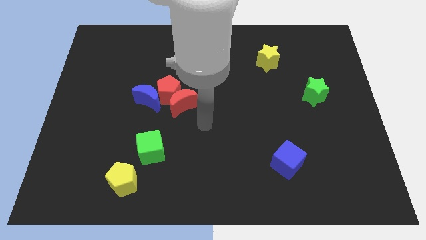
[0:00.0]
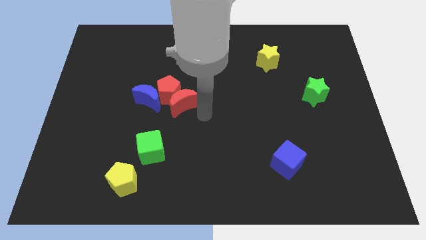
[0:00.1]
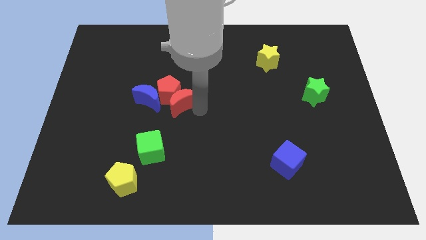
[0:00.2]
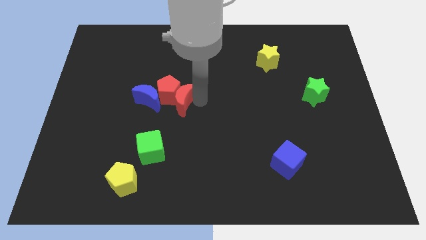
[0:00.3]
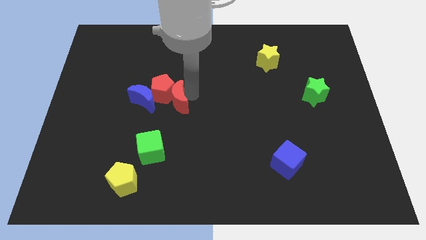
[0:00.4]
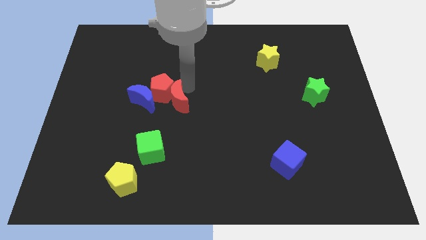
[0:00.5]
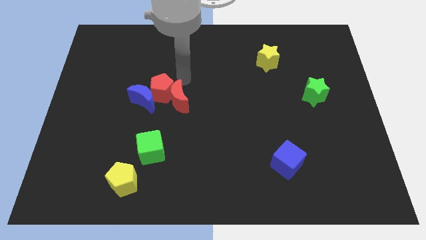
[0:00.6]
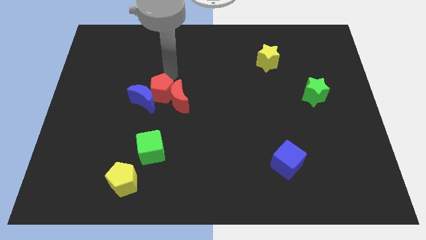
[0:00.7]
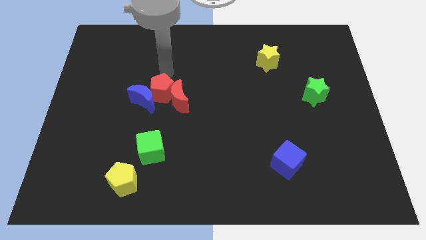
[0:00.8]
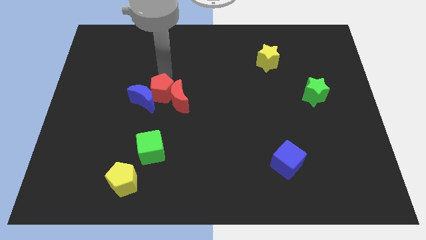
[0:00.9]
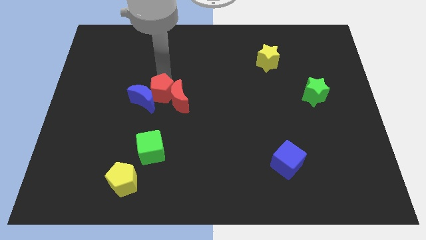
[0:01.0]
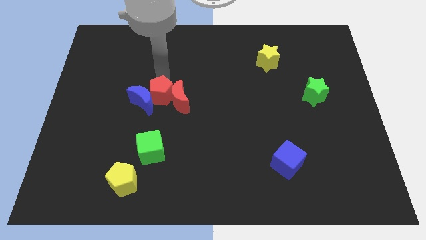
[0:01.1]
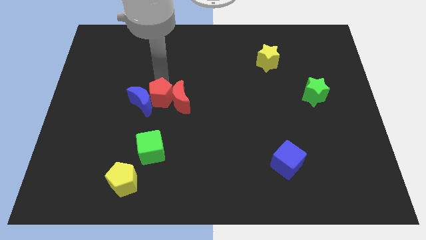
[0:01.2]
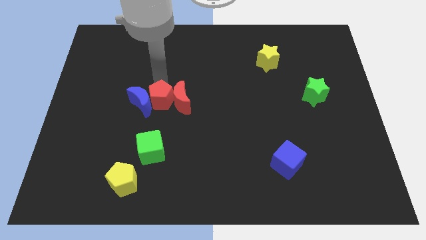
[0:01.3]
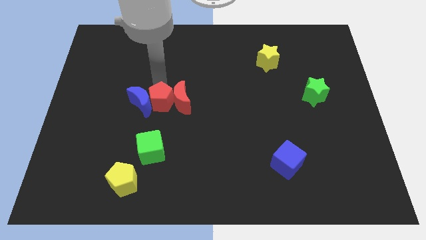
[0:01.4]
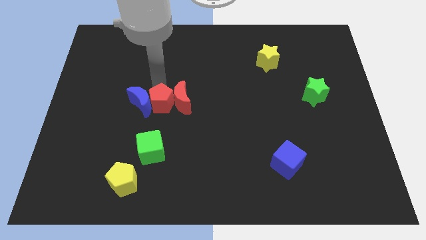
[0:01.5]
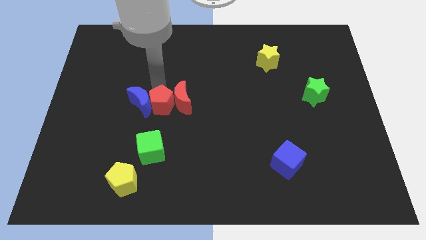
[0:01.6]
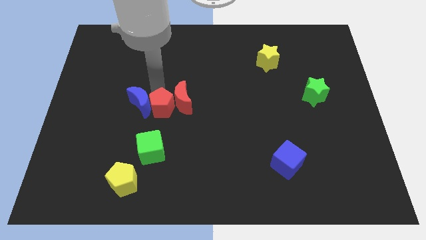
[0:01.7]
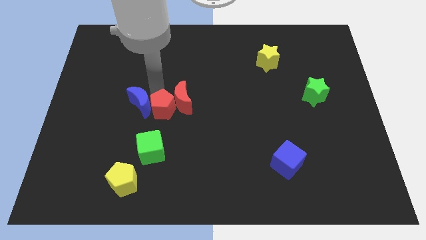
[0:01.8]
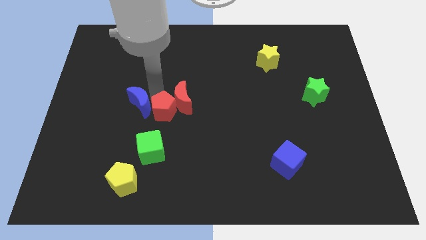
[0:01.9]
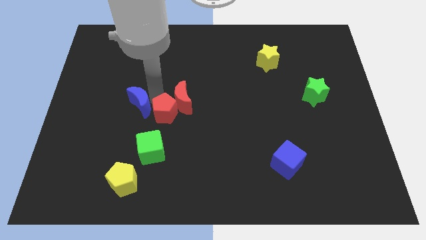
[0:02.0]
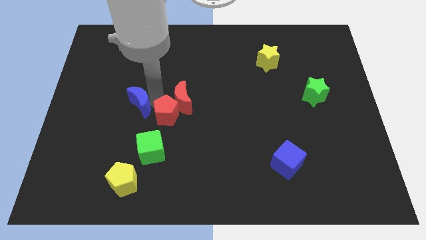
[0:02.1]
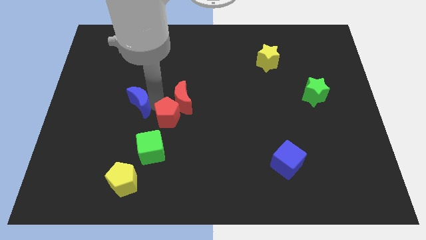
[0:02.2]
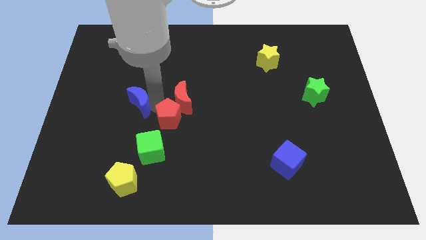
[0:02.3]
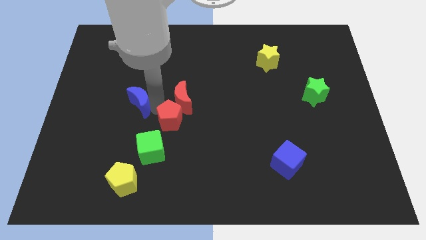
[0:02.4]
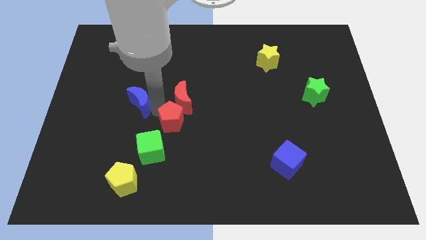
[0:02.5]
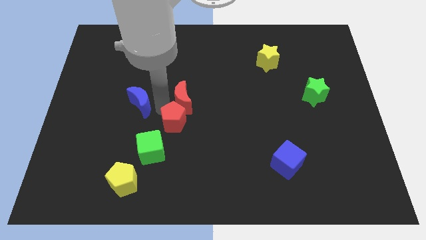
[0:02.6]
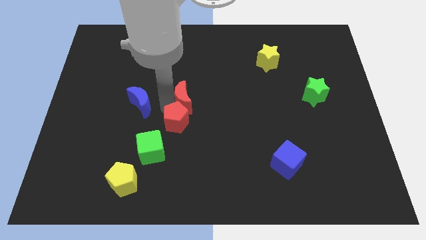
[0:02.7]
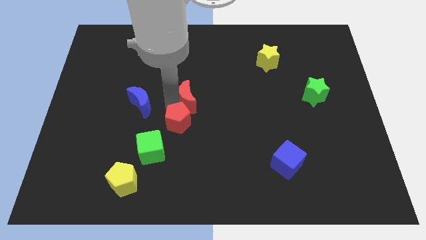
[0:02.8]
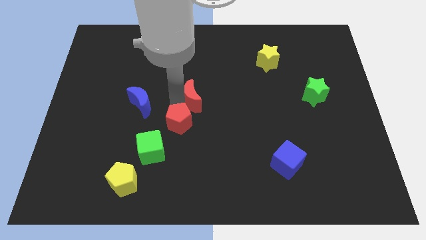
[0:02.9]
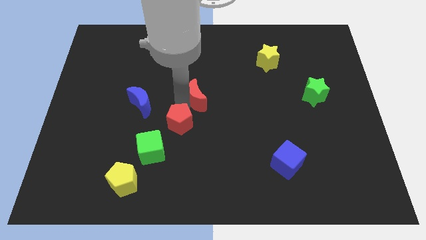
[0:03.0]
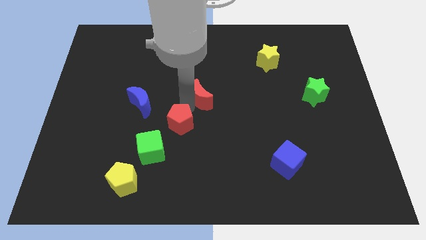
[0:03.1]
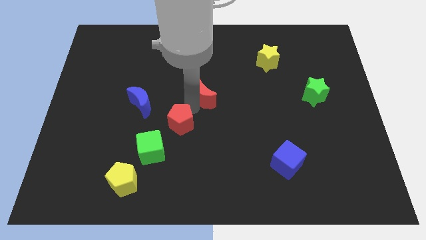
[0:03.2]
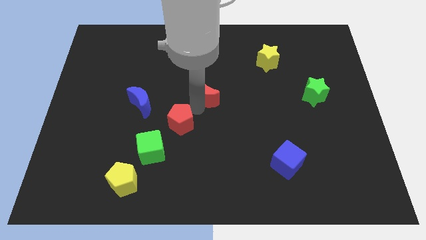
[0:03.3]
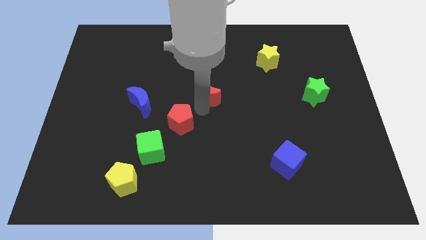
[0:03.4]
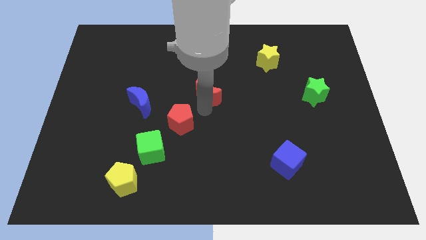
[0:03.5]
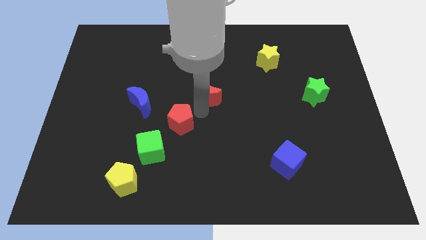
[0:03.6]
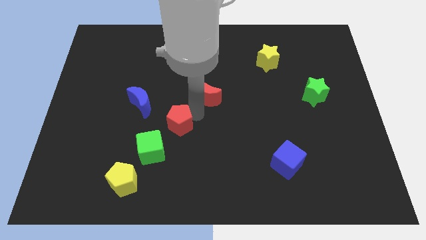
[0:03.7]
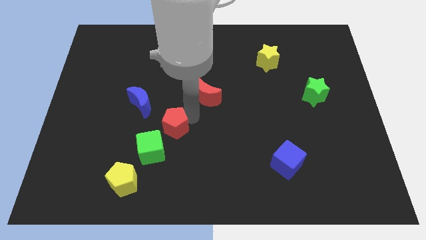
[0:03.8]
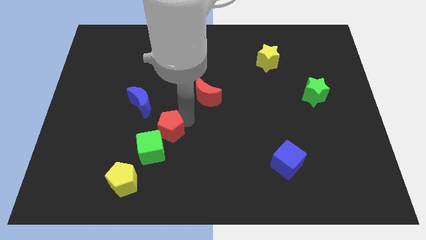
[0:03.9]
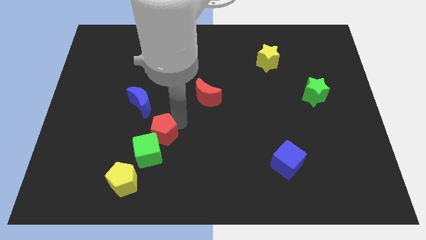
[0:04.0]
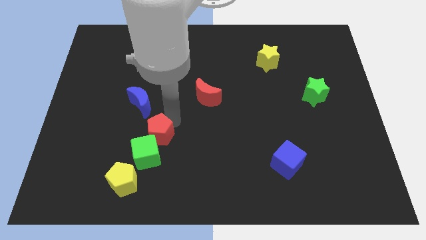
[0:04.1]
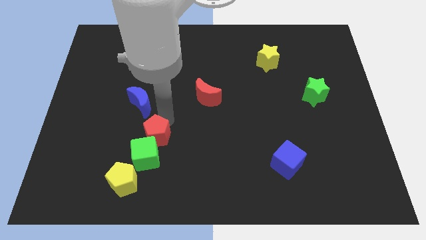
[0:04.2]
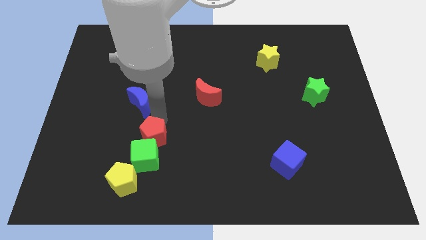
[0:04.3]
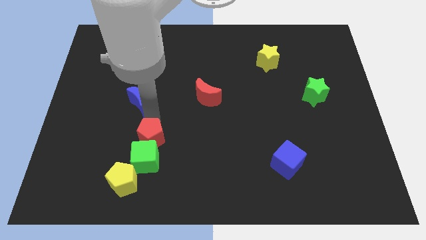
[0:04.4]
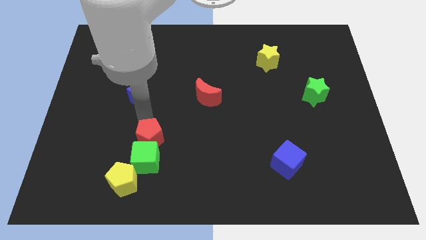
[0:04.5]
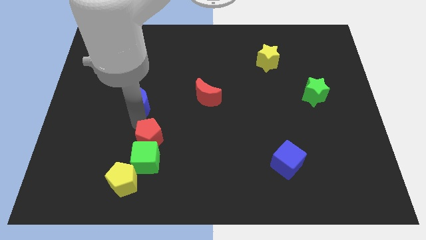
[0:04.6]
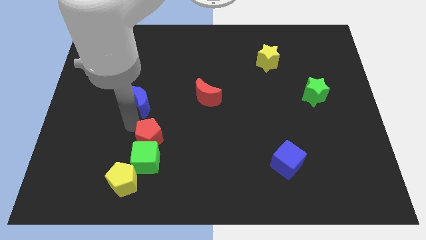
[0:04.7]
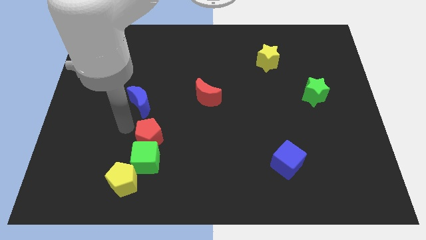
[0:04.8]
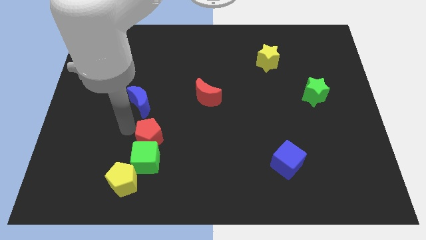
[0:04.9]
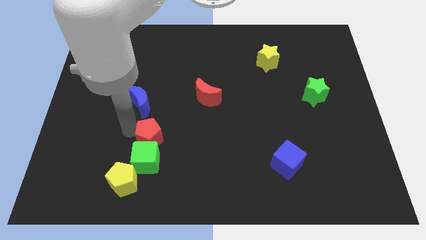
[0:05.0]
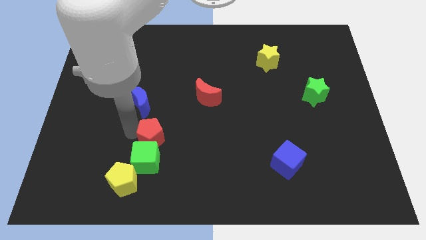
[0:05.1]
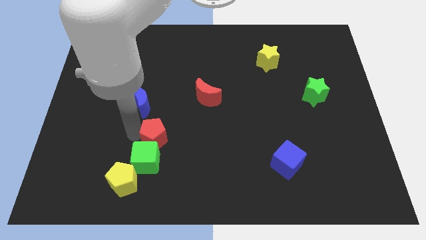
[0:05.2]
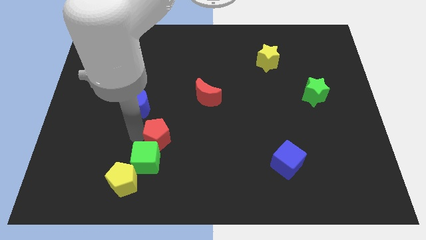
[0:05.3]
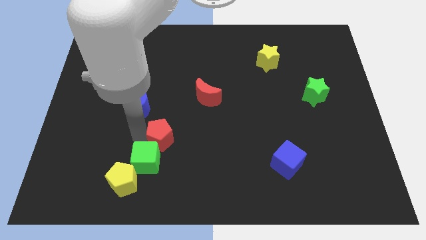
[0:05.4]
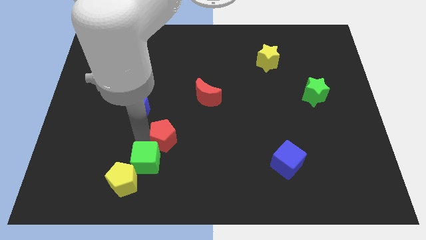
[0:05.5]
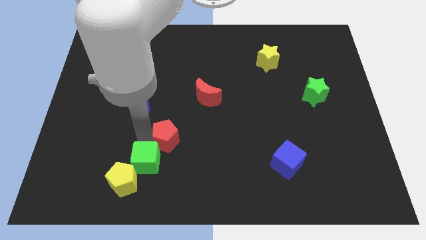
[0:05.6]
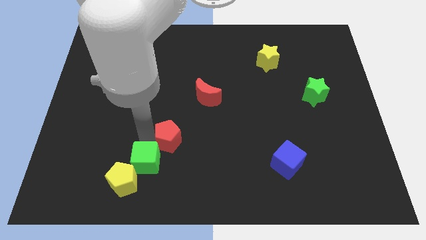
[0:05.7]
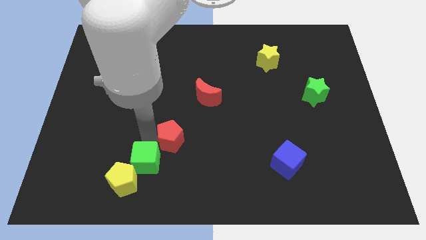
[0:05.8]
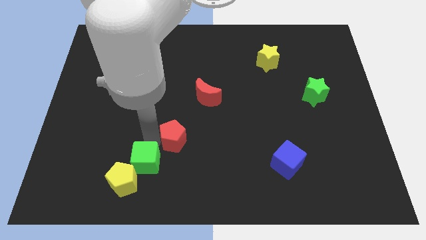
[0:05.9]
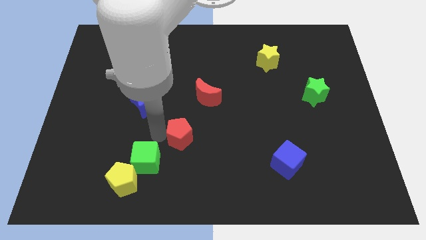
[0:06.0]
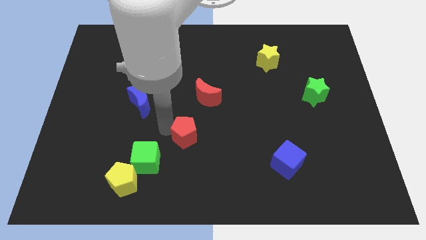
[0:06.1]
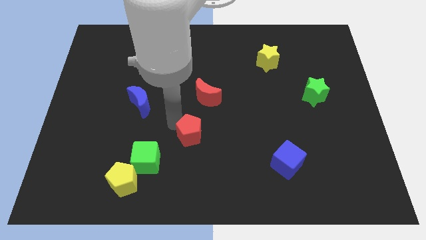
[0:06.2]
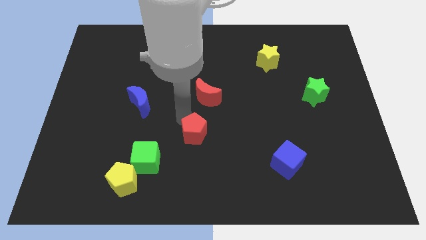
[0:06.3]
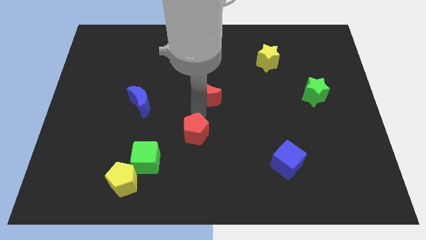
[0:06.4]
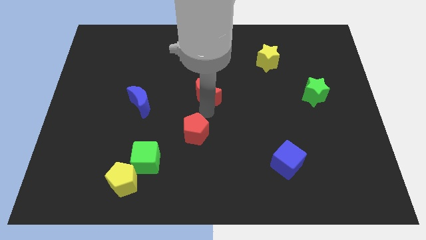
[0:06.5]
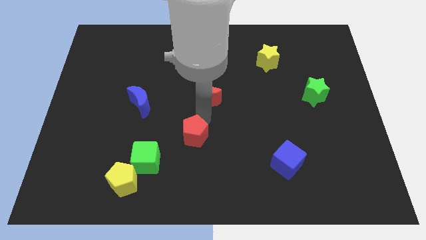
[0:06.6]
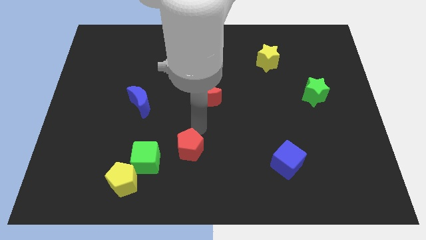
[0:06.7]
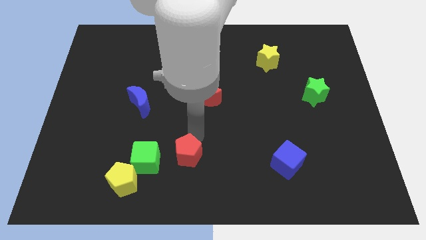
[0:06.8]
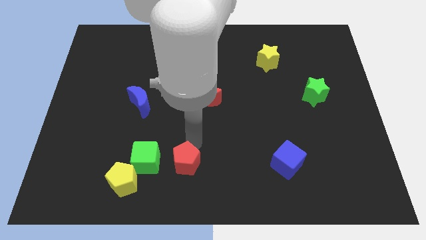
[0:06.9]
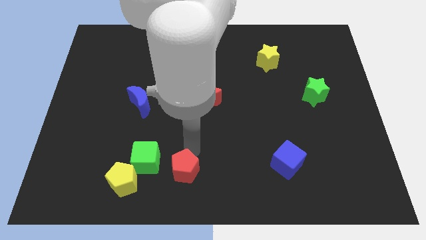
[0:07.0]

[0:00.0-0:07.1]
put the red pentagon to the bottom right of the green cube
